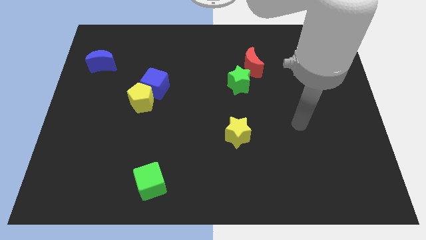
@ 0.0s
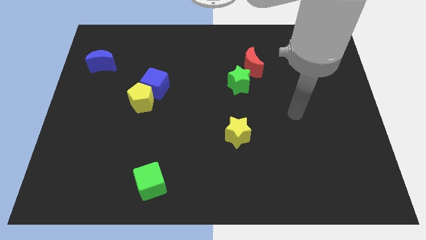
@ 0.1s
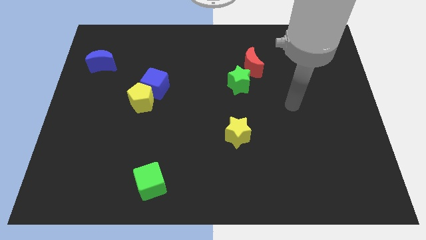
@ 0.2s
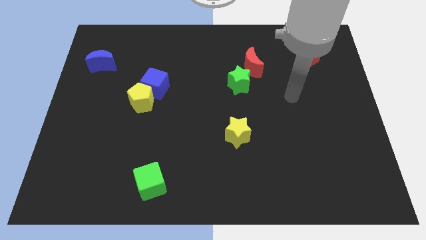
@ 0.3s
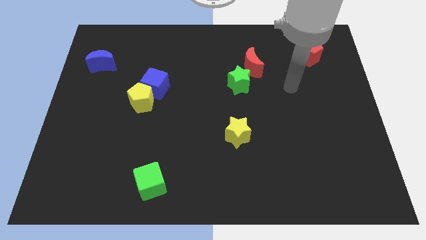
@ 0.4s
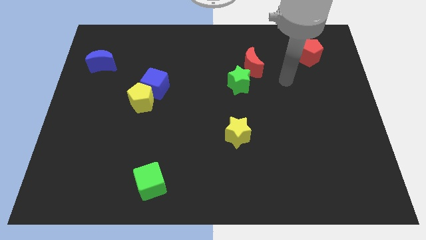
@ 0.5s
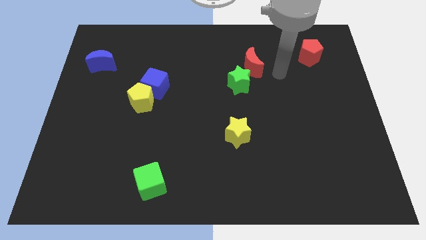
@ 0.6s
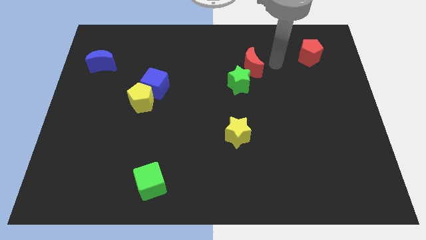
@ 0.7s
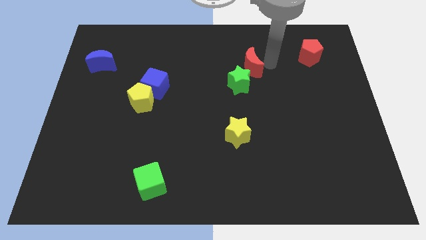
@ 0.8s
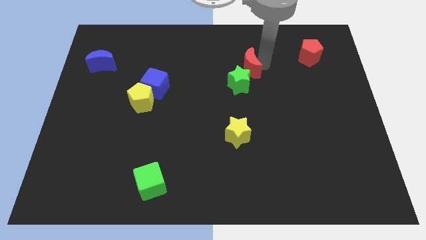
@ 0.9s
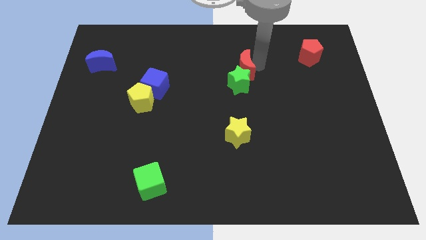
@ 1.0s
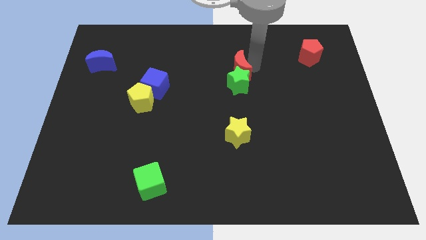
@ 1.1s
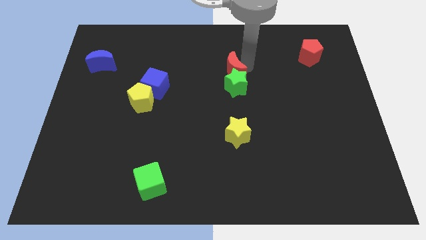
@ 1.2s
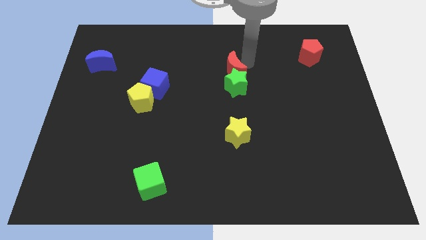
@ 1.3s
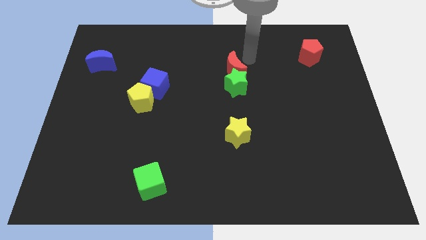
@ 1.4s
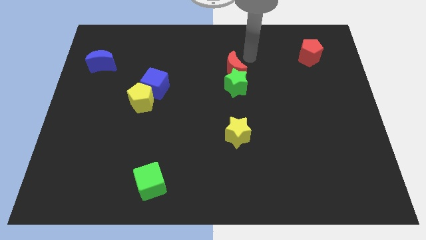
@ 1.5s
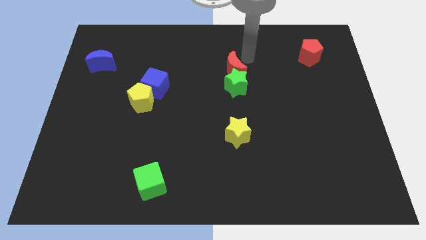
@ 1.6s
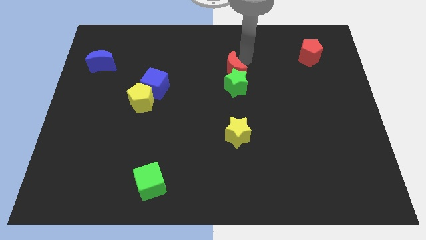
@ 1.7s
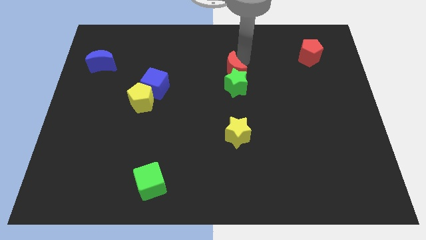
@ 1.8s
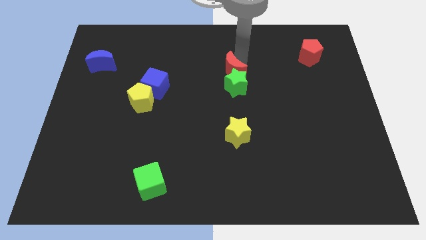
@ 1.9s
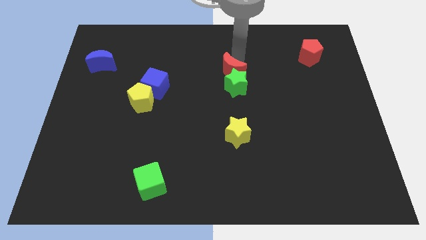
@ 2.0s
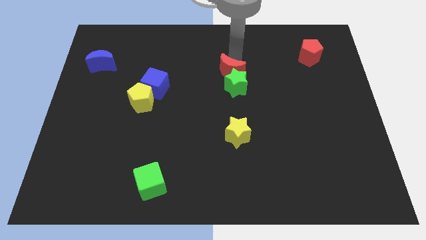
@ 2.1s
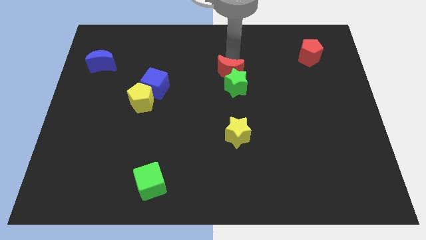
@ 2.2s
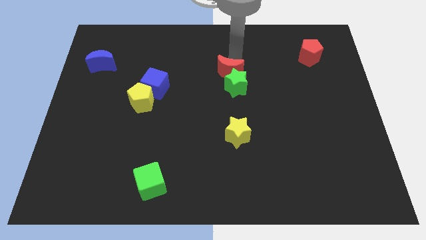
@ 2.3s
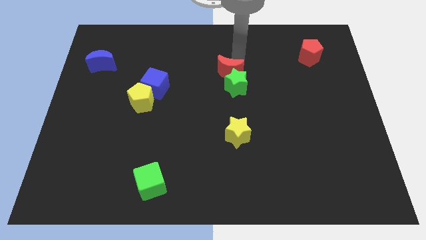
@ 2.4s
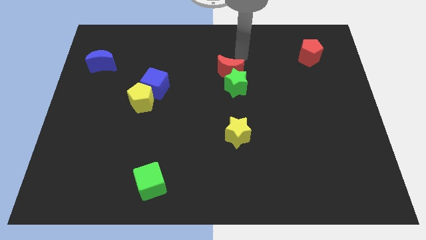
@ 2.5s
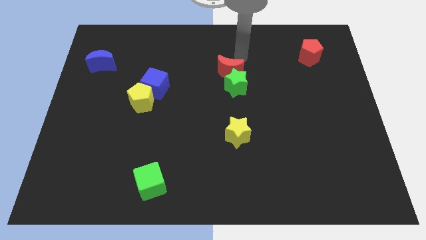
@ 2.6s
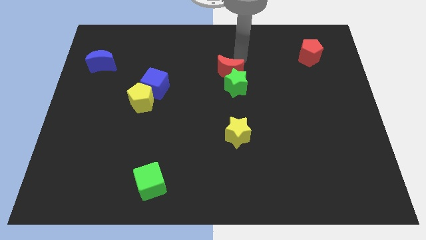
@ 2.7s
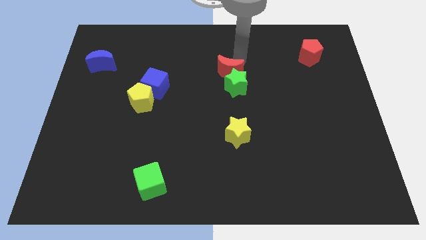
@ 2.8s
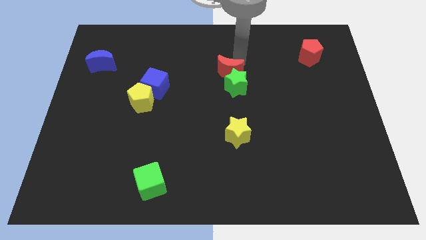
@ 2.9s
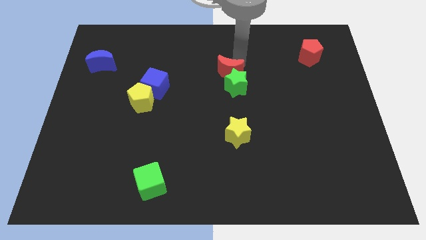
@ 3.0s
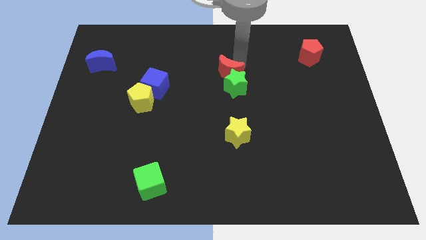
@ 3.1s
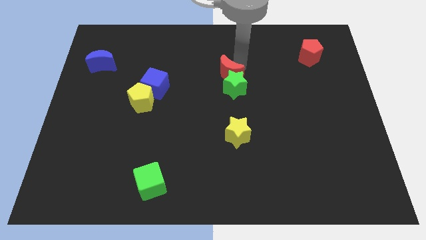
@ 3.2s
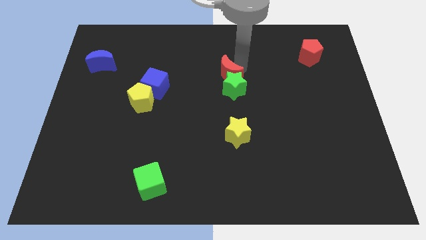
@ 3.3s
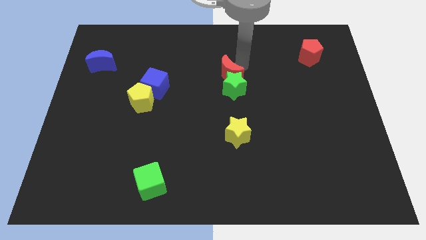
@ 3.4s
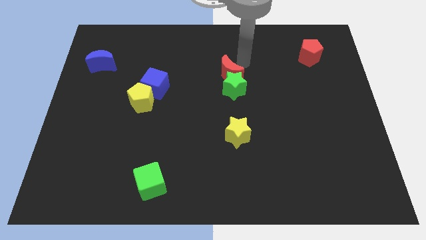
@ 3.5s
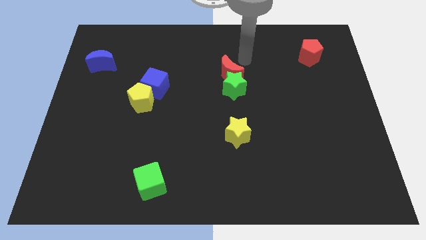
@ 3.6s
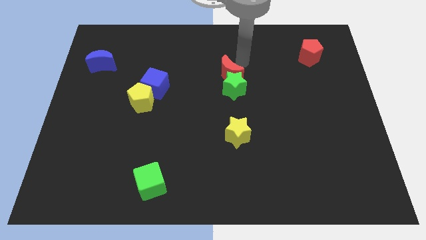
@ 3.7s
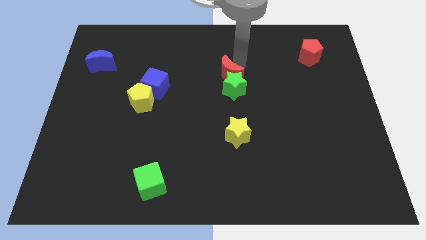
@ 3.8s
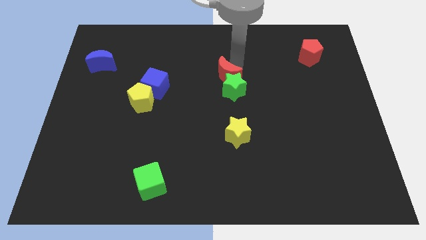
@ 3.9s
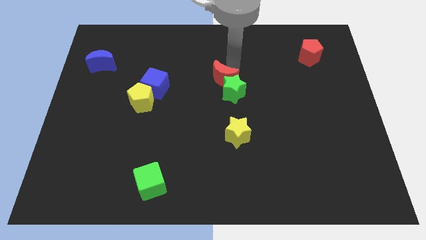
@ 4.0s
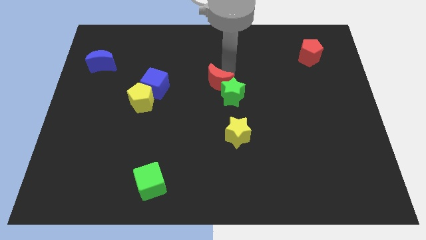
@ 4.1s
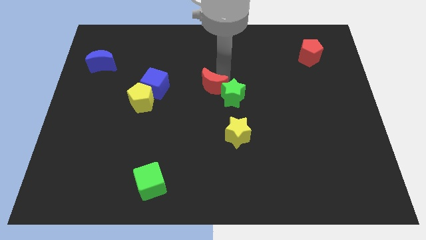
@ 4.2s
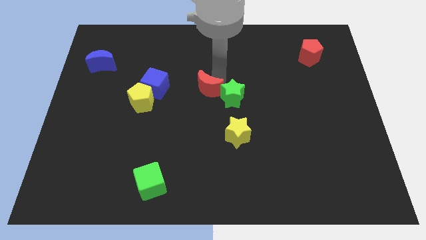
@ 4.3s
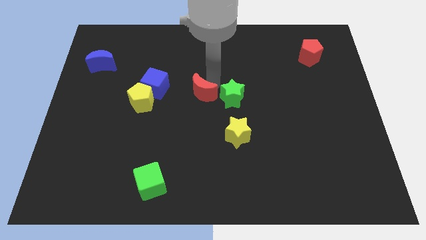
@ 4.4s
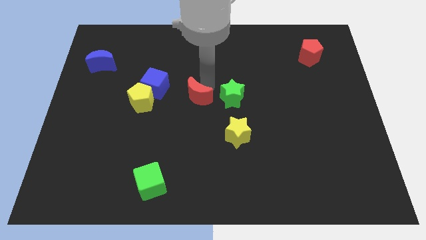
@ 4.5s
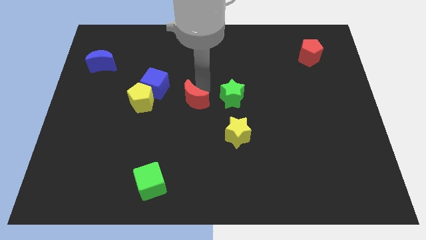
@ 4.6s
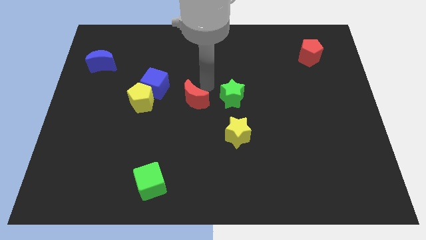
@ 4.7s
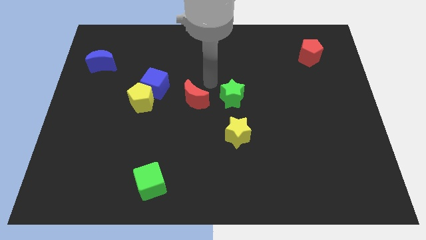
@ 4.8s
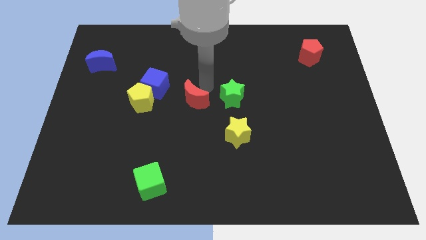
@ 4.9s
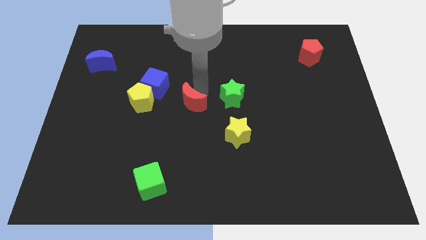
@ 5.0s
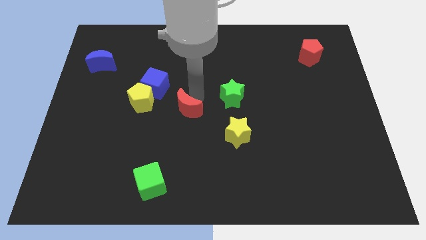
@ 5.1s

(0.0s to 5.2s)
slide the red moon diagonally downwards and to the left

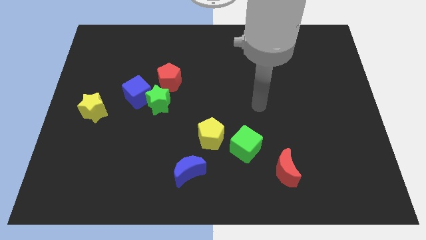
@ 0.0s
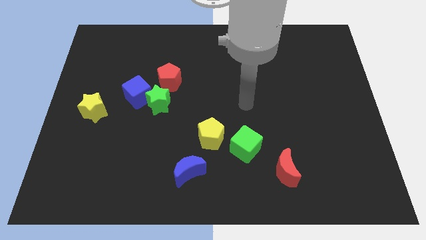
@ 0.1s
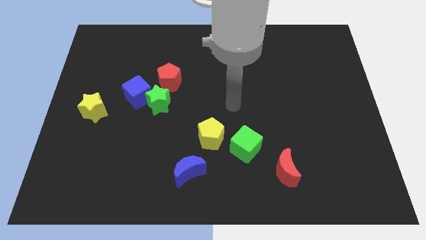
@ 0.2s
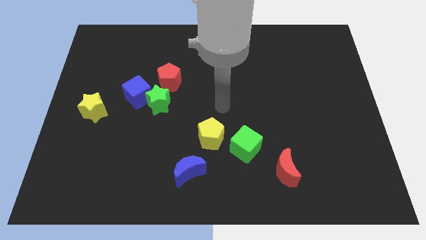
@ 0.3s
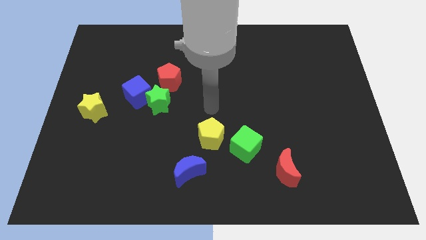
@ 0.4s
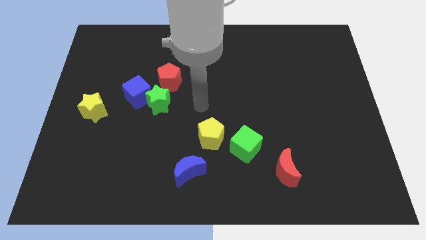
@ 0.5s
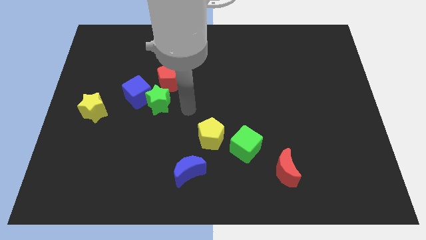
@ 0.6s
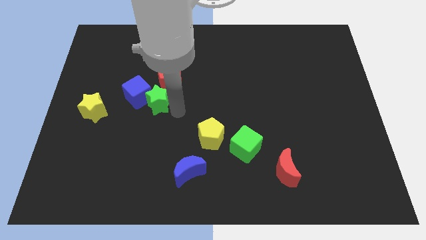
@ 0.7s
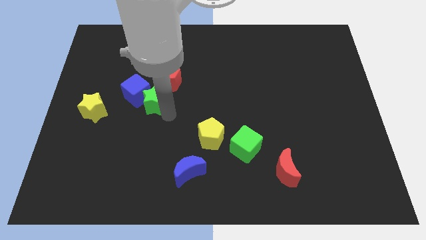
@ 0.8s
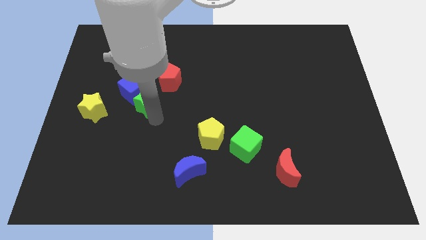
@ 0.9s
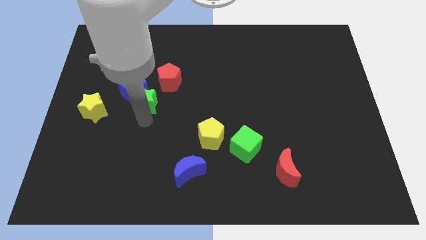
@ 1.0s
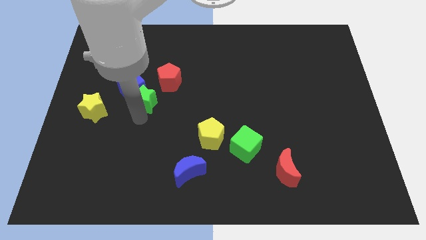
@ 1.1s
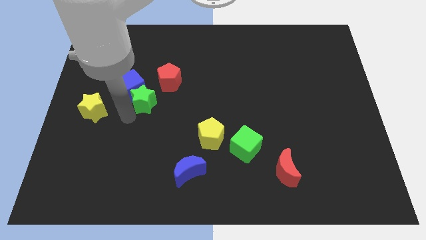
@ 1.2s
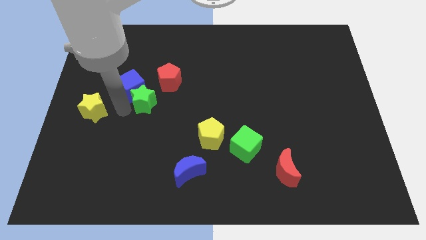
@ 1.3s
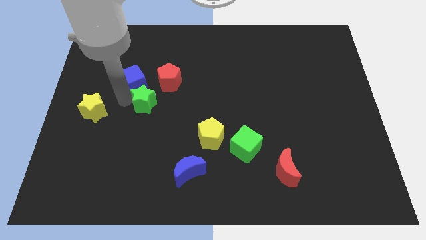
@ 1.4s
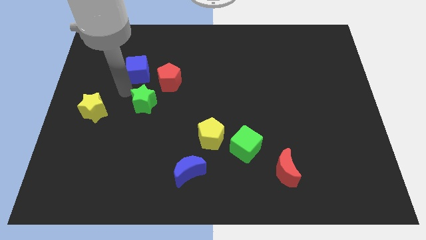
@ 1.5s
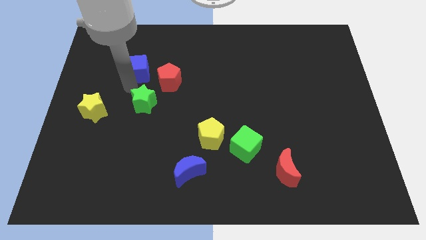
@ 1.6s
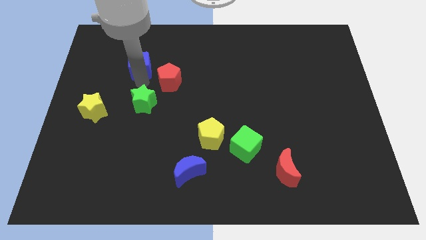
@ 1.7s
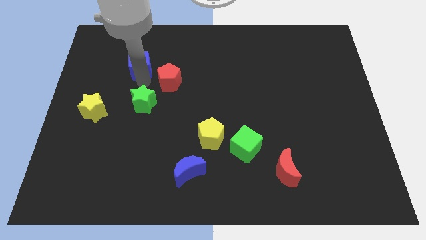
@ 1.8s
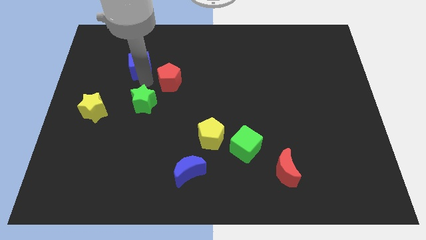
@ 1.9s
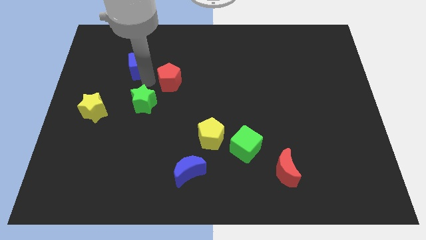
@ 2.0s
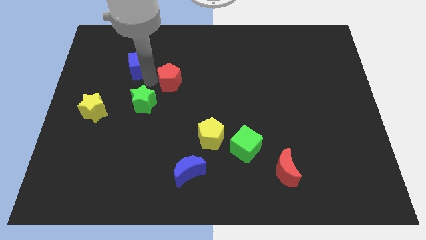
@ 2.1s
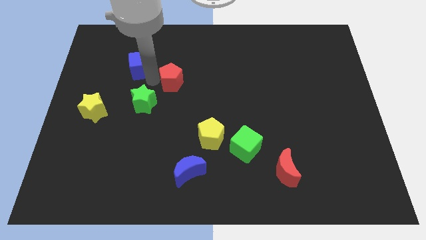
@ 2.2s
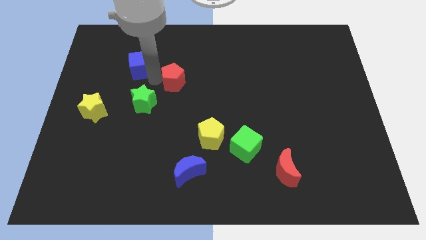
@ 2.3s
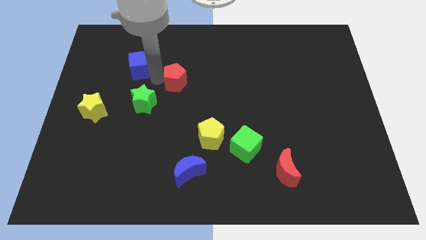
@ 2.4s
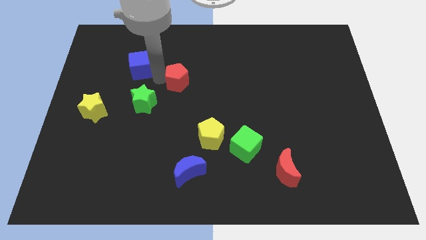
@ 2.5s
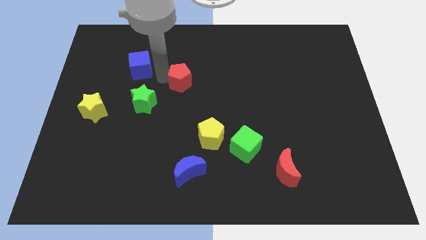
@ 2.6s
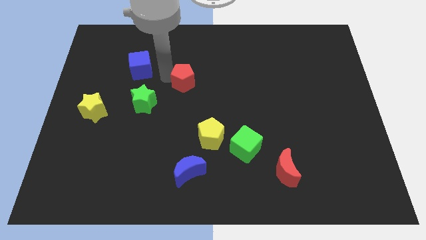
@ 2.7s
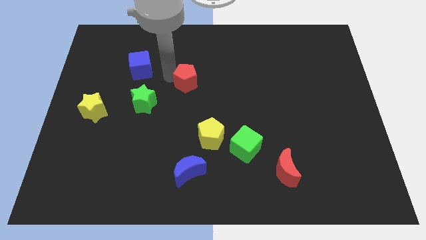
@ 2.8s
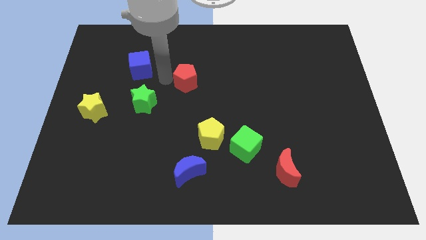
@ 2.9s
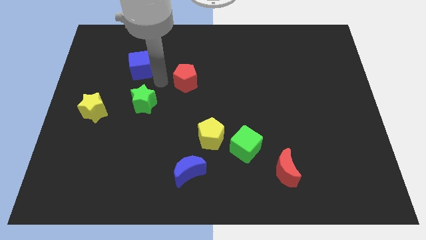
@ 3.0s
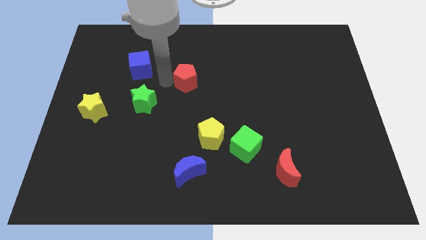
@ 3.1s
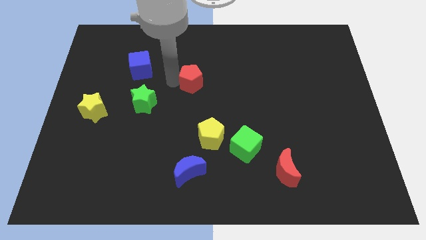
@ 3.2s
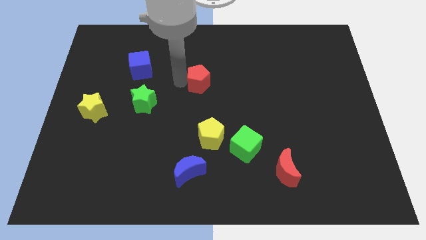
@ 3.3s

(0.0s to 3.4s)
slightly move the red pentagon to the right
